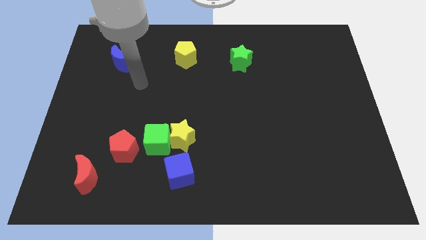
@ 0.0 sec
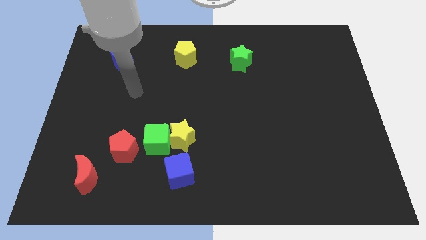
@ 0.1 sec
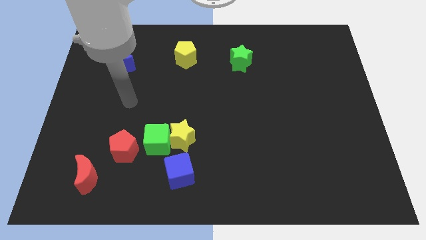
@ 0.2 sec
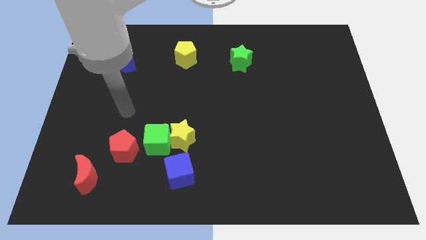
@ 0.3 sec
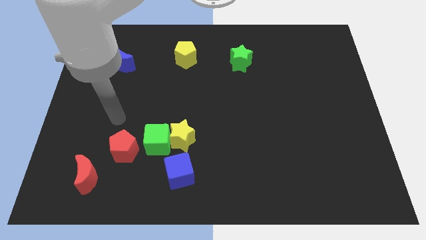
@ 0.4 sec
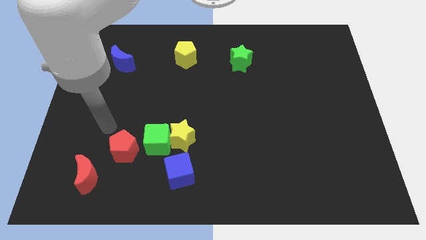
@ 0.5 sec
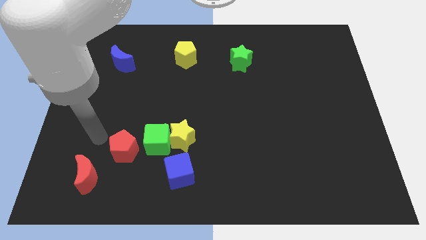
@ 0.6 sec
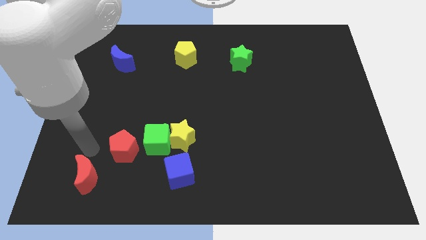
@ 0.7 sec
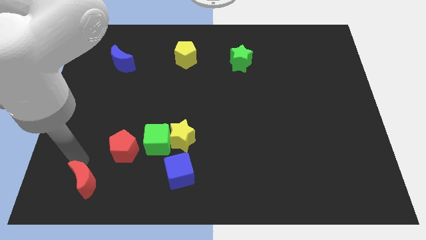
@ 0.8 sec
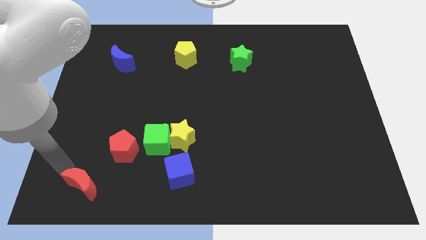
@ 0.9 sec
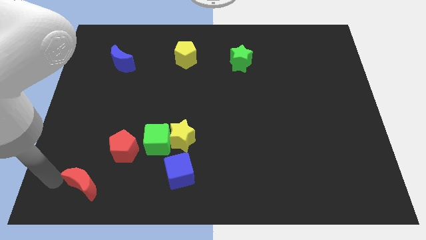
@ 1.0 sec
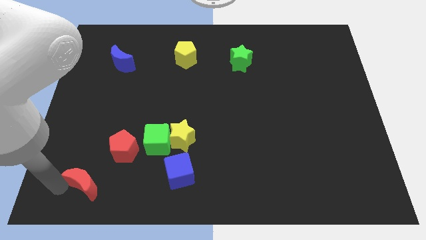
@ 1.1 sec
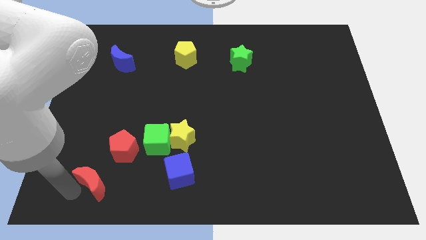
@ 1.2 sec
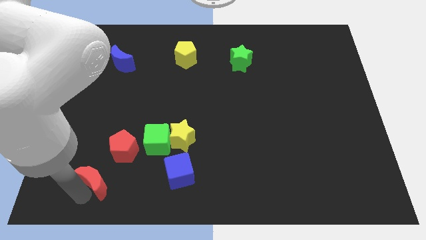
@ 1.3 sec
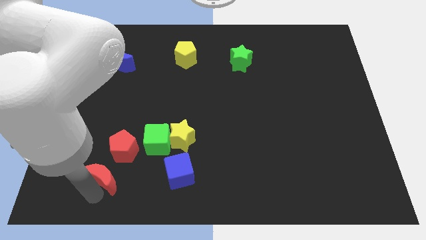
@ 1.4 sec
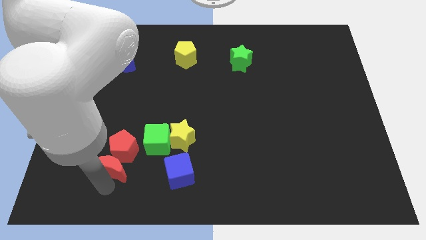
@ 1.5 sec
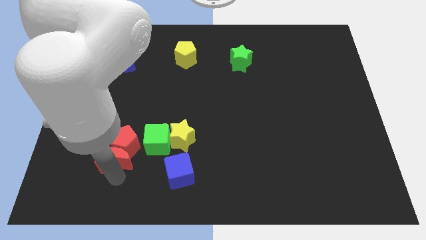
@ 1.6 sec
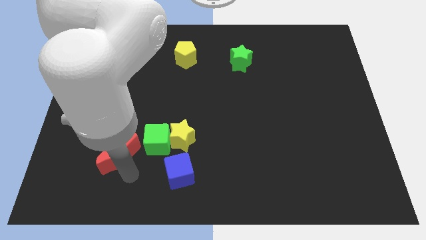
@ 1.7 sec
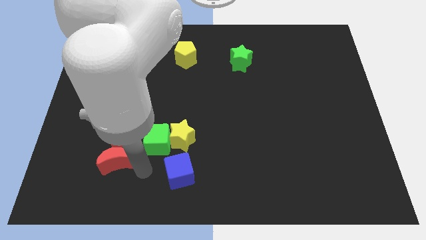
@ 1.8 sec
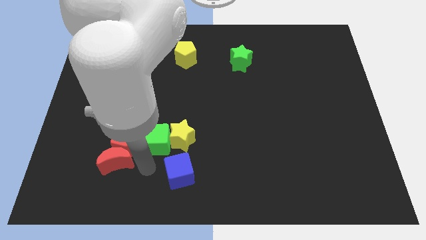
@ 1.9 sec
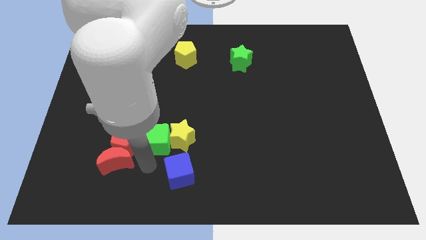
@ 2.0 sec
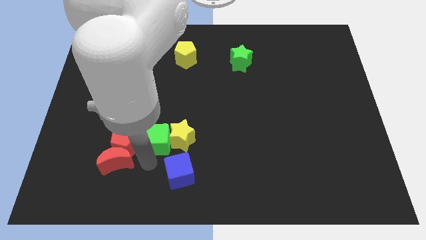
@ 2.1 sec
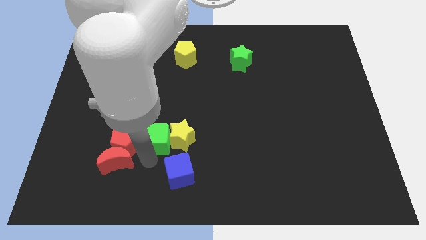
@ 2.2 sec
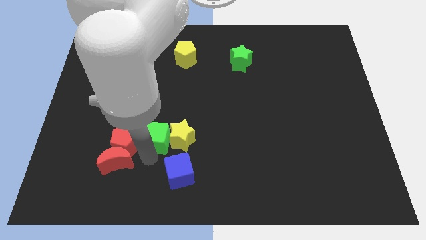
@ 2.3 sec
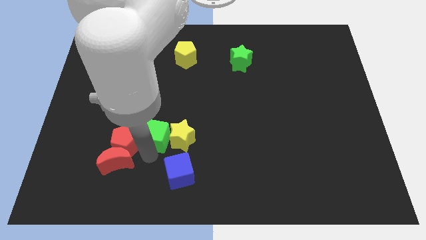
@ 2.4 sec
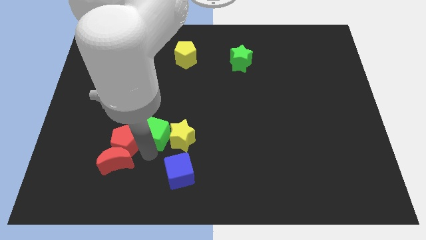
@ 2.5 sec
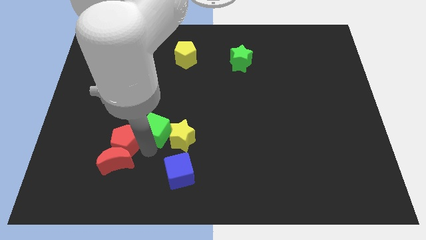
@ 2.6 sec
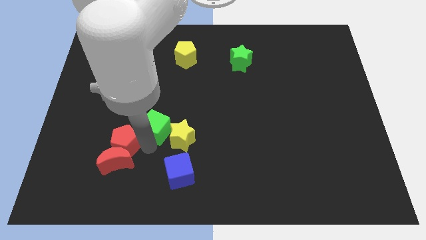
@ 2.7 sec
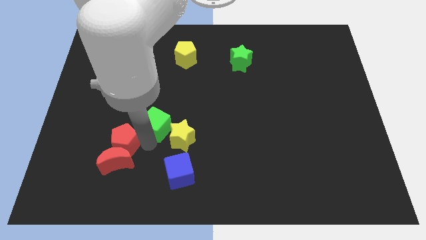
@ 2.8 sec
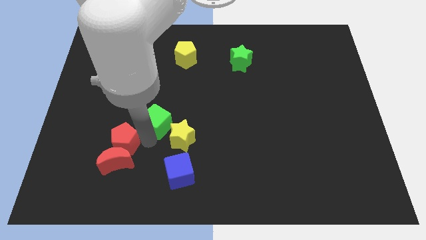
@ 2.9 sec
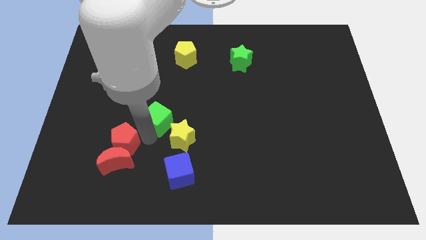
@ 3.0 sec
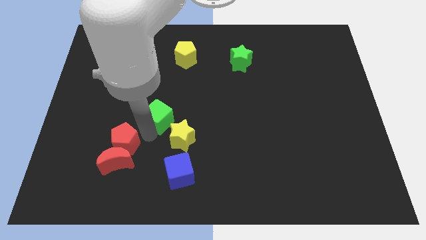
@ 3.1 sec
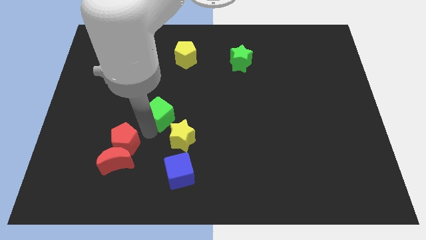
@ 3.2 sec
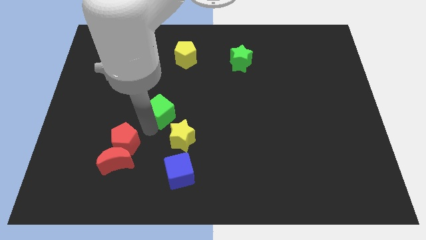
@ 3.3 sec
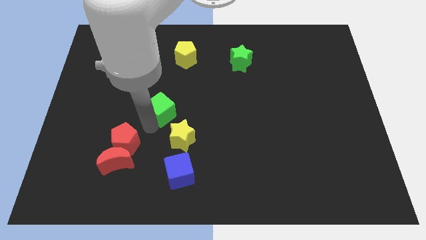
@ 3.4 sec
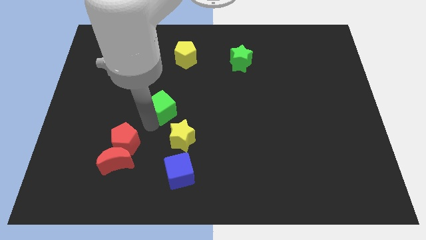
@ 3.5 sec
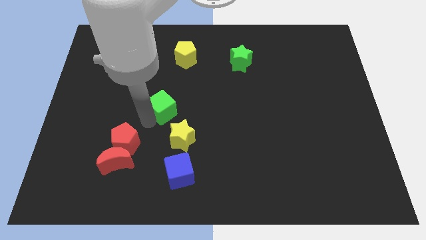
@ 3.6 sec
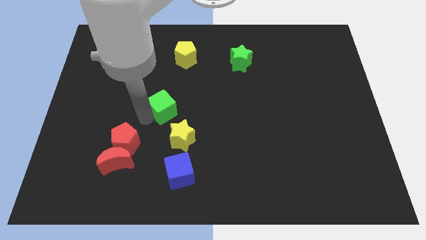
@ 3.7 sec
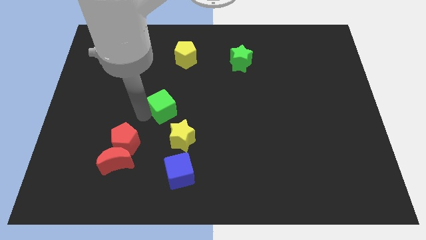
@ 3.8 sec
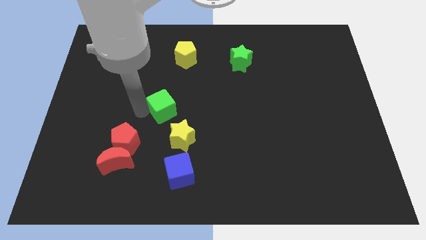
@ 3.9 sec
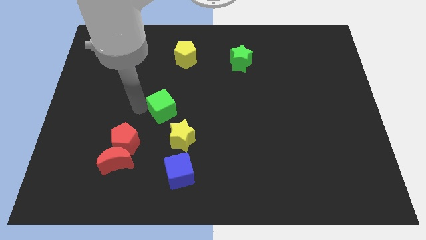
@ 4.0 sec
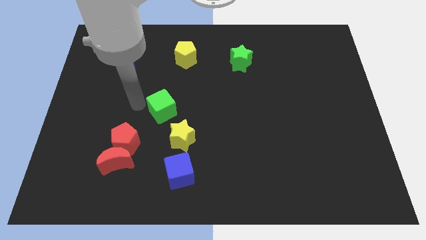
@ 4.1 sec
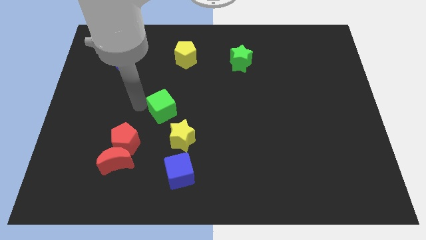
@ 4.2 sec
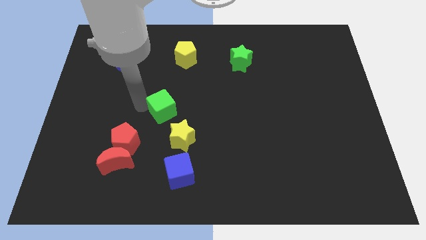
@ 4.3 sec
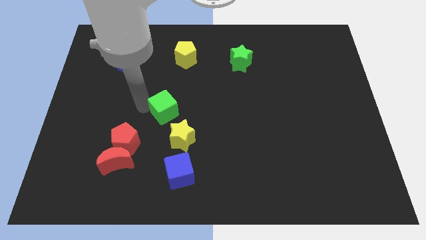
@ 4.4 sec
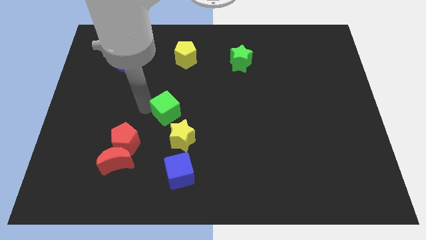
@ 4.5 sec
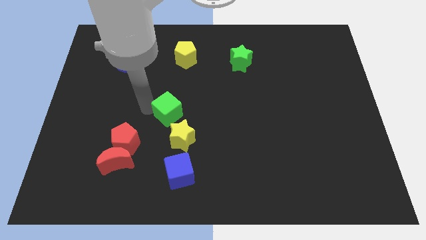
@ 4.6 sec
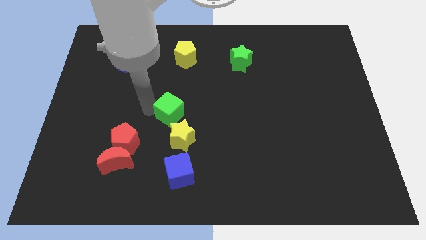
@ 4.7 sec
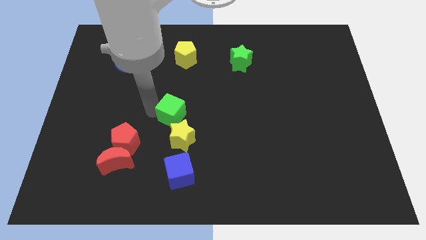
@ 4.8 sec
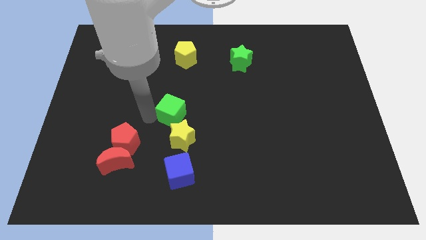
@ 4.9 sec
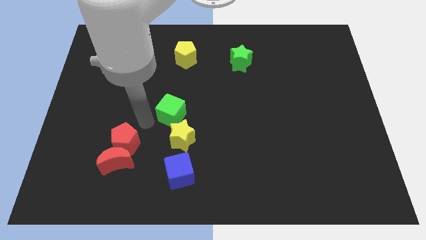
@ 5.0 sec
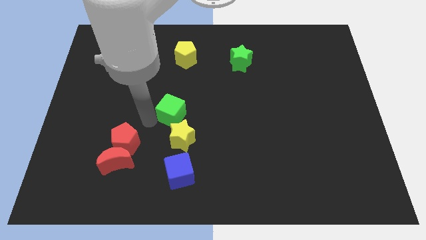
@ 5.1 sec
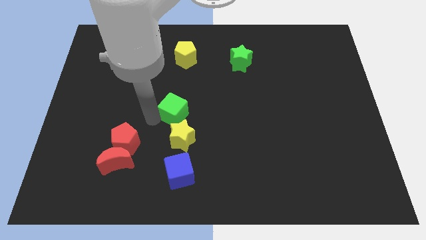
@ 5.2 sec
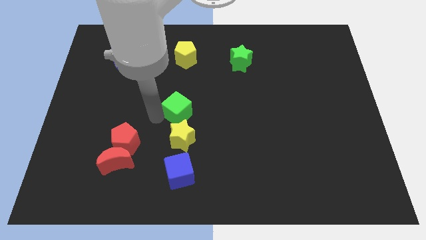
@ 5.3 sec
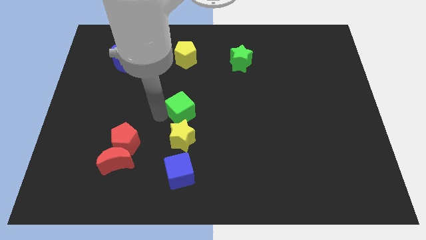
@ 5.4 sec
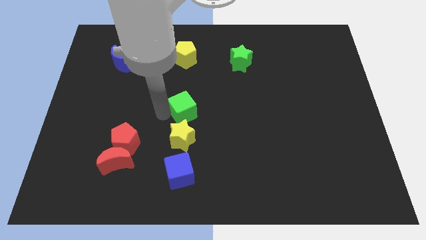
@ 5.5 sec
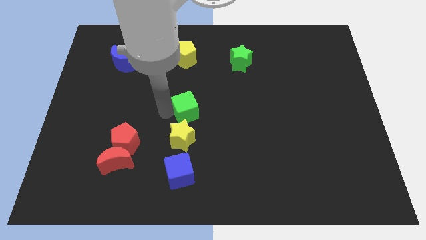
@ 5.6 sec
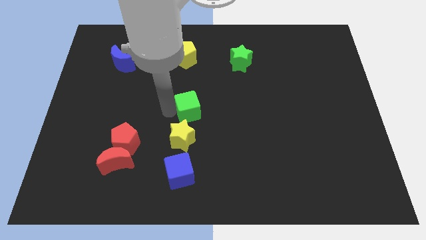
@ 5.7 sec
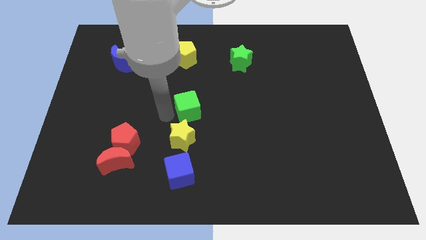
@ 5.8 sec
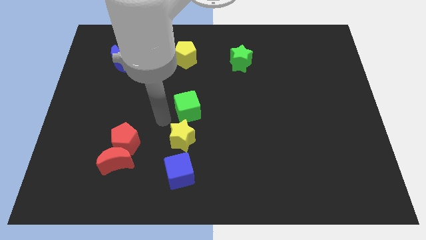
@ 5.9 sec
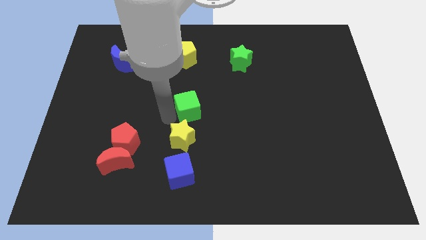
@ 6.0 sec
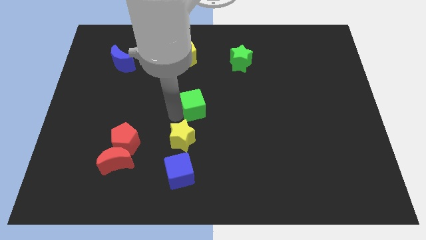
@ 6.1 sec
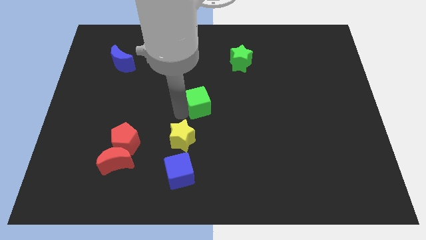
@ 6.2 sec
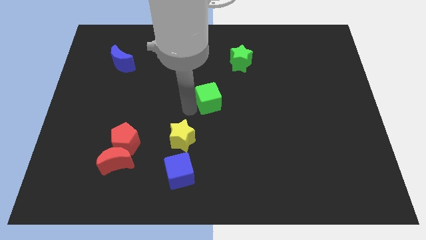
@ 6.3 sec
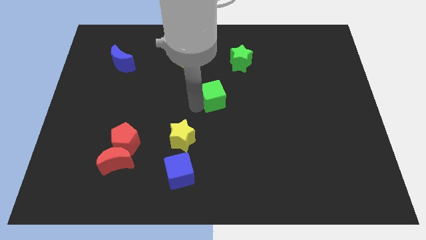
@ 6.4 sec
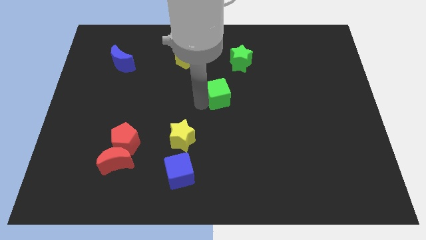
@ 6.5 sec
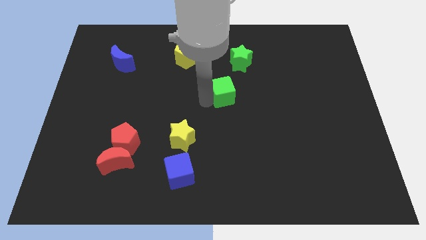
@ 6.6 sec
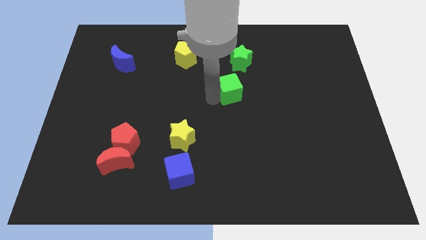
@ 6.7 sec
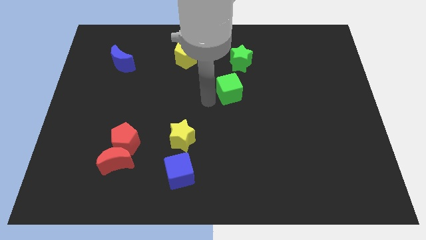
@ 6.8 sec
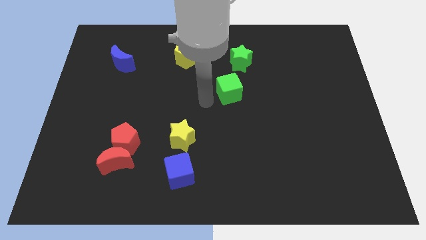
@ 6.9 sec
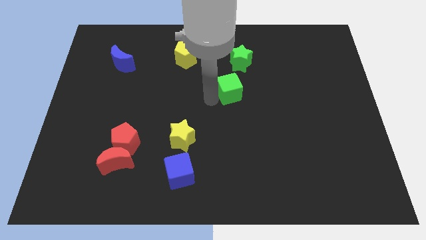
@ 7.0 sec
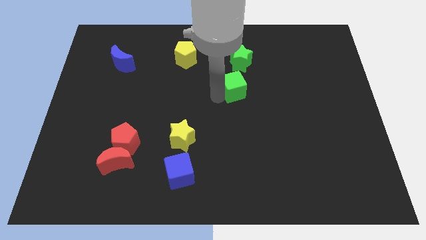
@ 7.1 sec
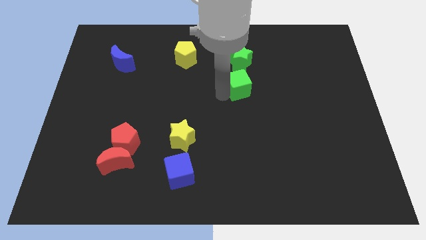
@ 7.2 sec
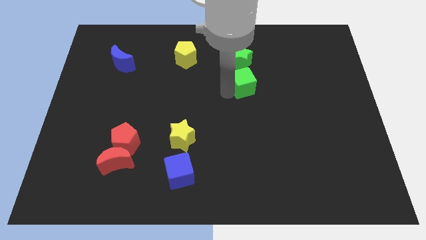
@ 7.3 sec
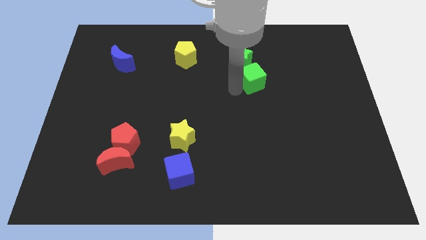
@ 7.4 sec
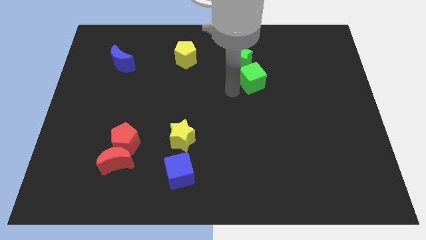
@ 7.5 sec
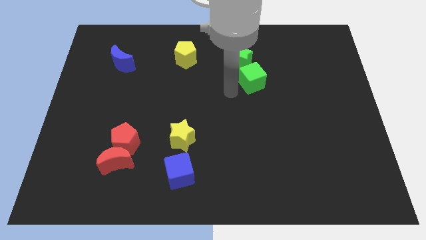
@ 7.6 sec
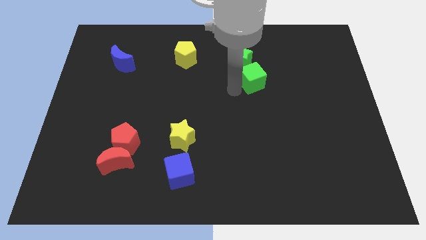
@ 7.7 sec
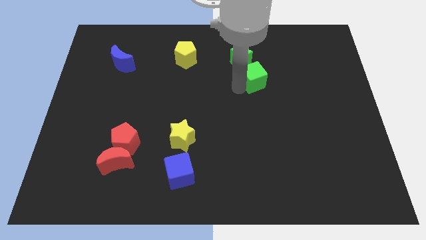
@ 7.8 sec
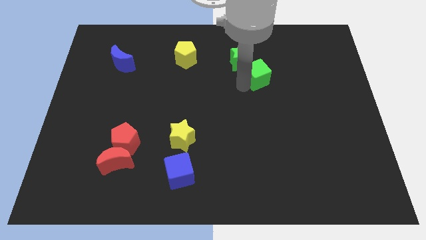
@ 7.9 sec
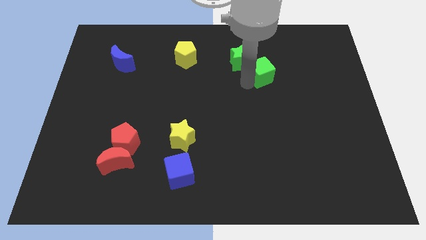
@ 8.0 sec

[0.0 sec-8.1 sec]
put the green cube to the right side of the green star
